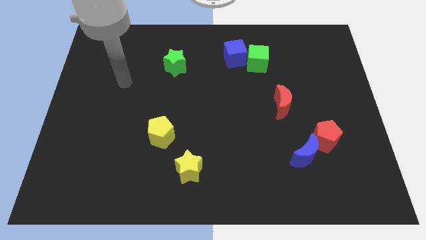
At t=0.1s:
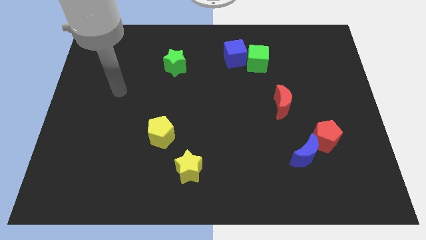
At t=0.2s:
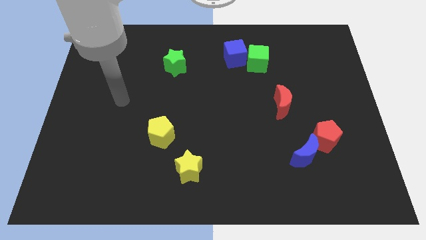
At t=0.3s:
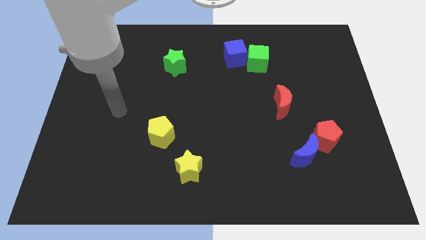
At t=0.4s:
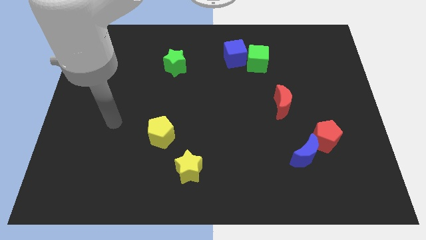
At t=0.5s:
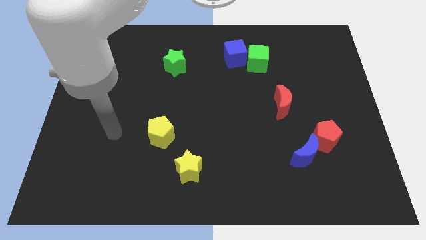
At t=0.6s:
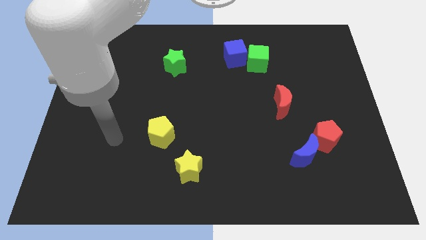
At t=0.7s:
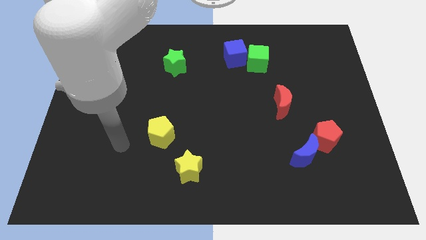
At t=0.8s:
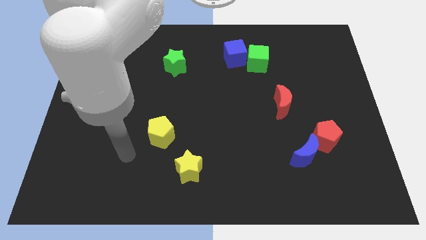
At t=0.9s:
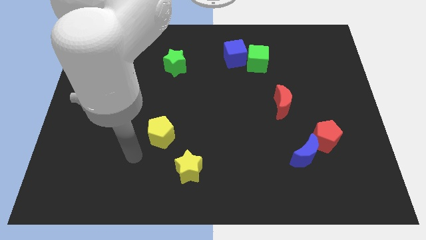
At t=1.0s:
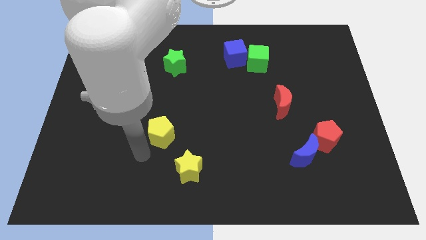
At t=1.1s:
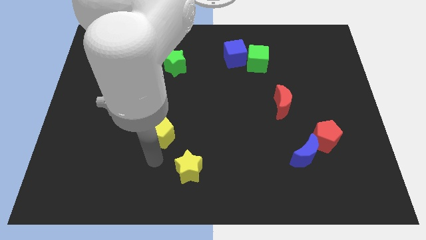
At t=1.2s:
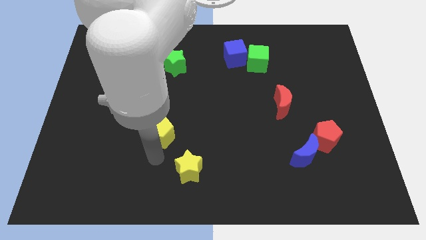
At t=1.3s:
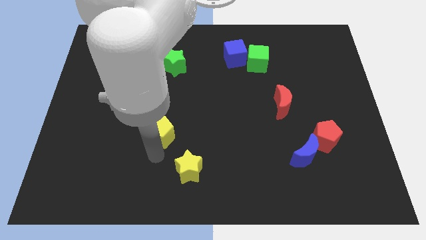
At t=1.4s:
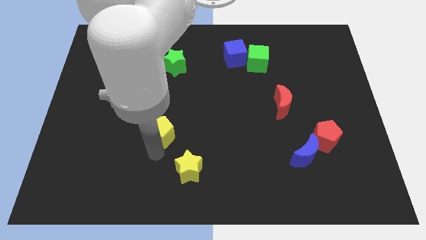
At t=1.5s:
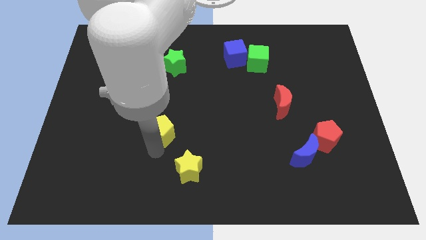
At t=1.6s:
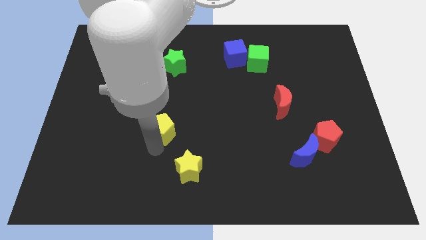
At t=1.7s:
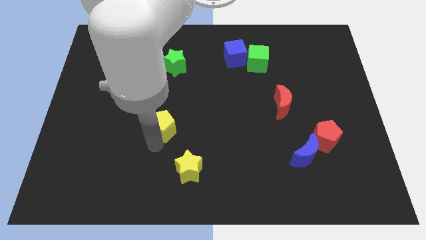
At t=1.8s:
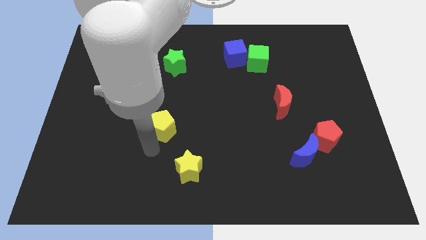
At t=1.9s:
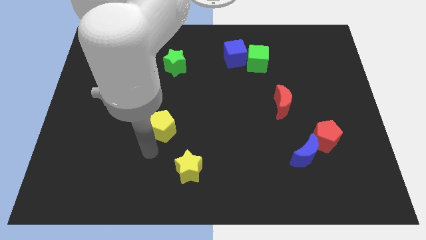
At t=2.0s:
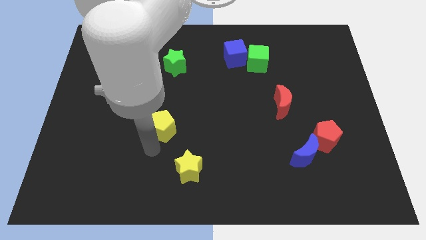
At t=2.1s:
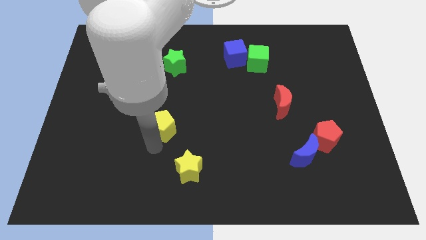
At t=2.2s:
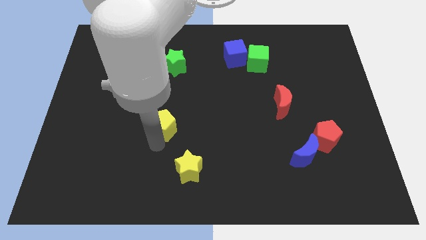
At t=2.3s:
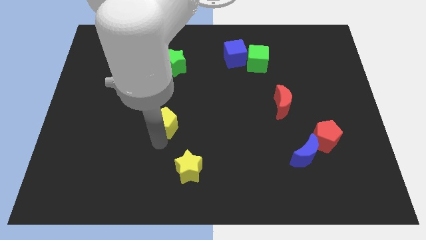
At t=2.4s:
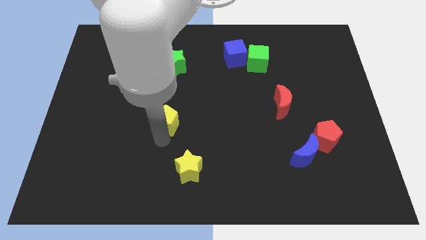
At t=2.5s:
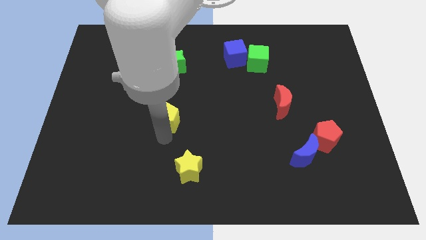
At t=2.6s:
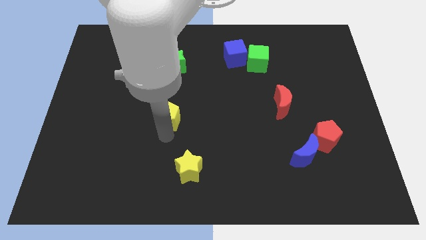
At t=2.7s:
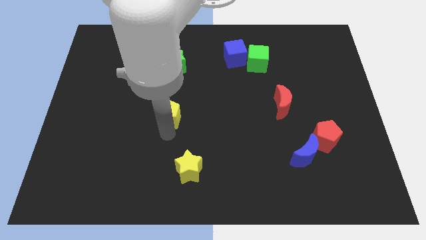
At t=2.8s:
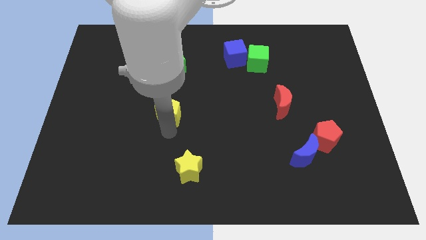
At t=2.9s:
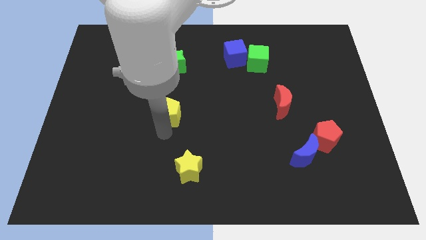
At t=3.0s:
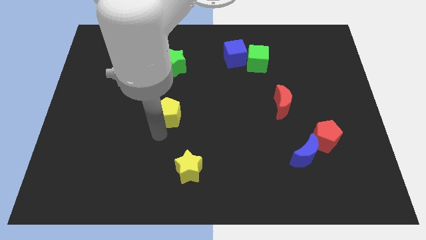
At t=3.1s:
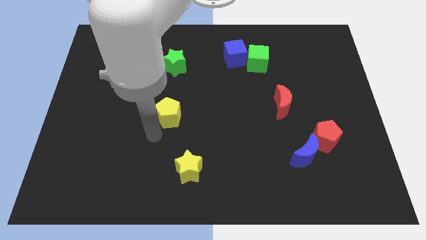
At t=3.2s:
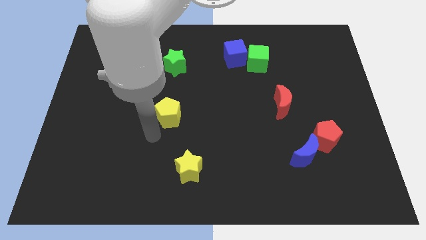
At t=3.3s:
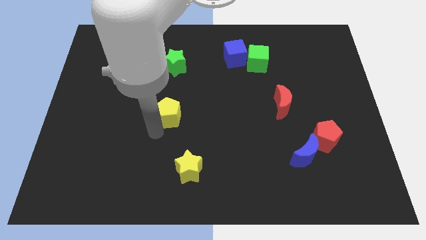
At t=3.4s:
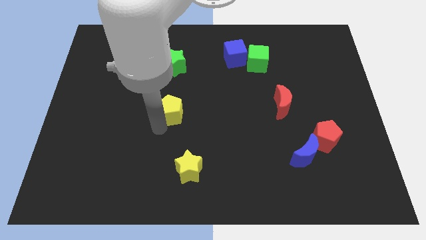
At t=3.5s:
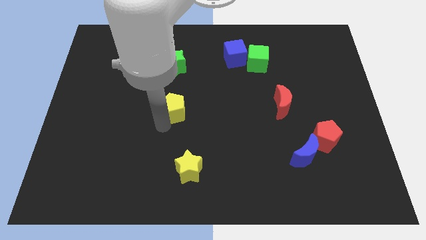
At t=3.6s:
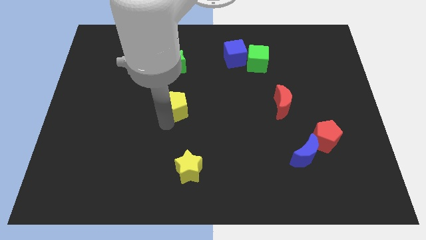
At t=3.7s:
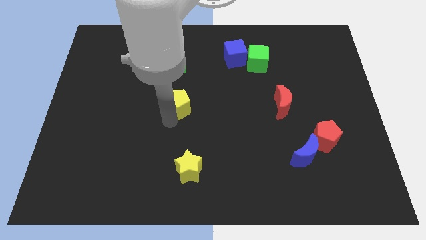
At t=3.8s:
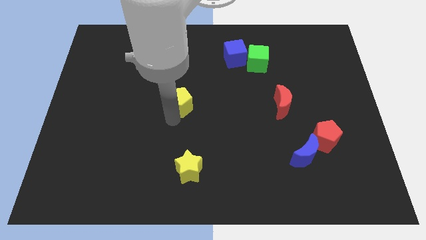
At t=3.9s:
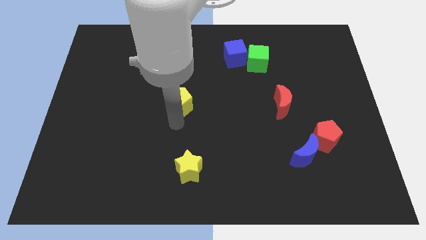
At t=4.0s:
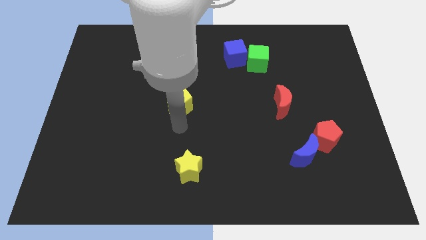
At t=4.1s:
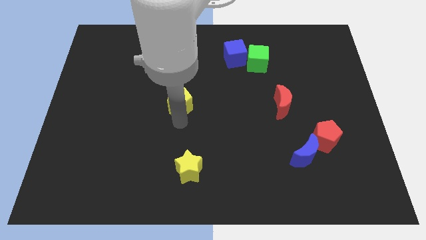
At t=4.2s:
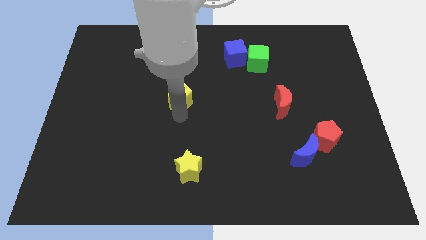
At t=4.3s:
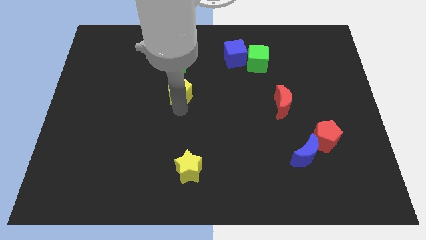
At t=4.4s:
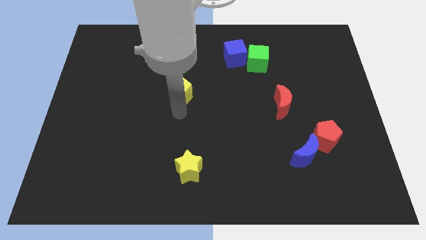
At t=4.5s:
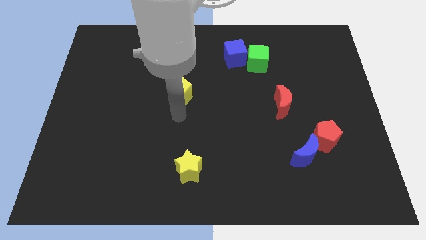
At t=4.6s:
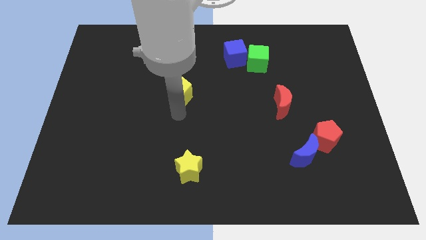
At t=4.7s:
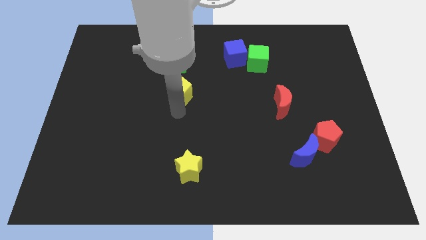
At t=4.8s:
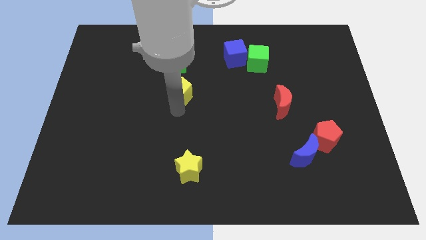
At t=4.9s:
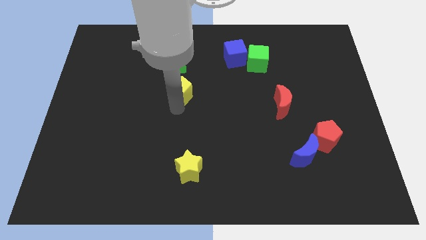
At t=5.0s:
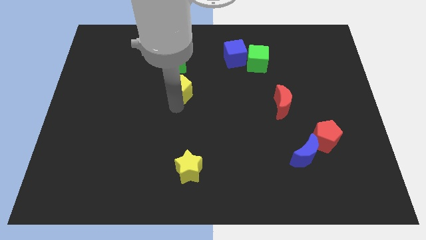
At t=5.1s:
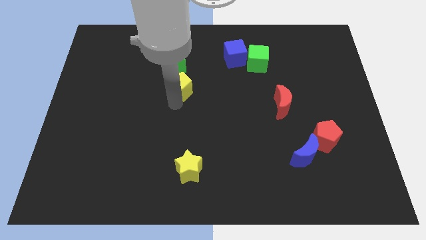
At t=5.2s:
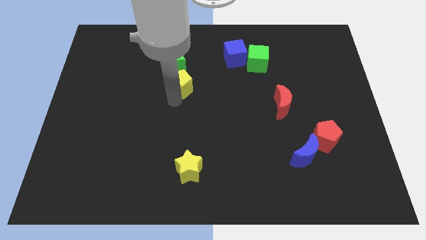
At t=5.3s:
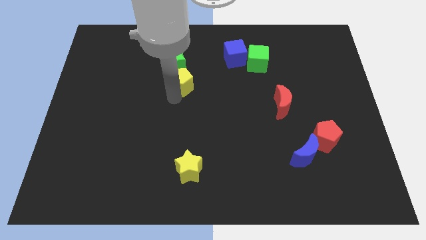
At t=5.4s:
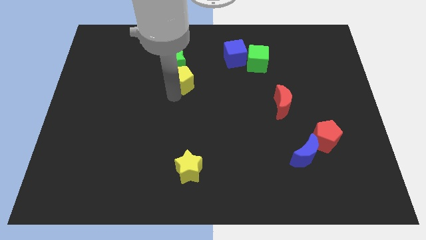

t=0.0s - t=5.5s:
move the yellow pentagon towards the green star
